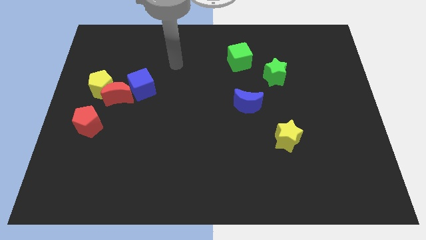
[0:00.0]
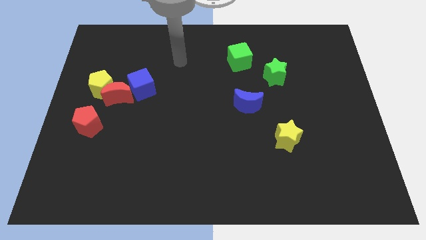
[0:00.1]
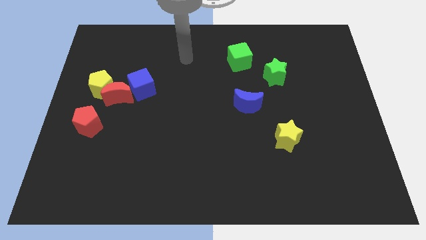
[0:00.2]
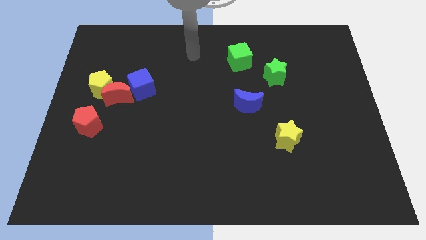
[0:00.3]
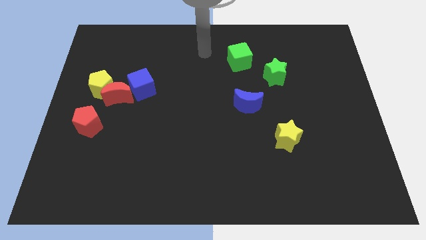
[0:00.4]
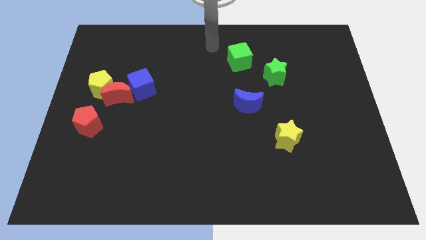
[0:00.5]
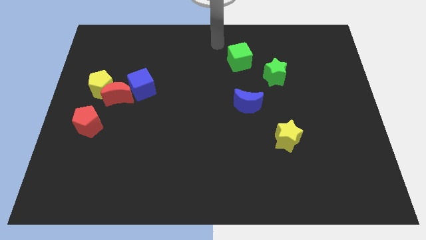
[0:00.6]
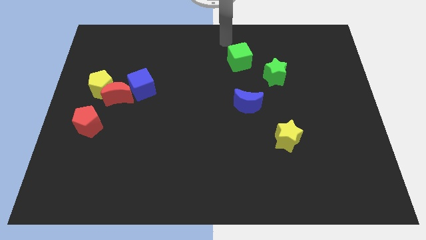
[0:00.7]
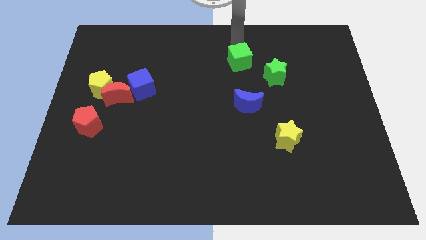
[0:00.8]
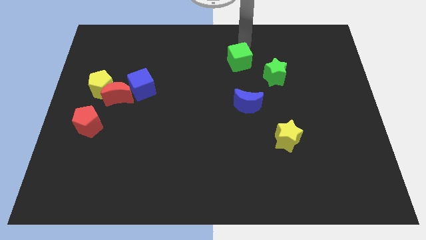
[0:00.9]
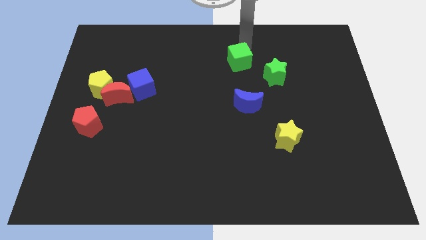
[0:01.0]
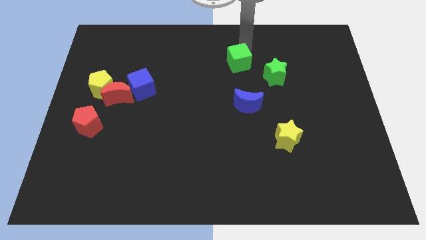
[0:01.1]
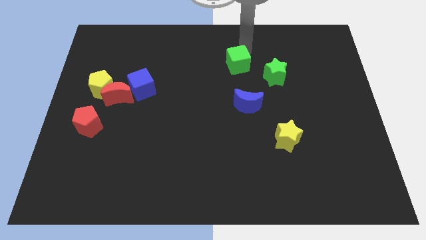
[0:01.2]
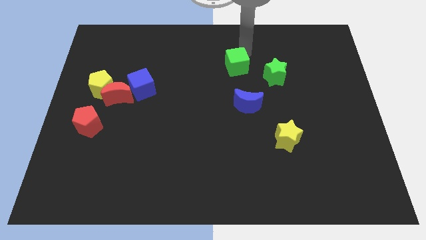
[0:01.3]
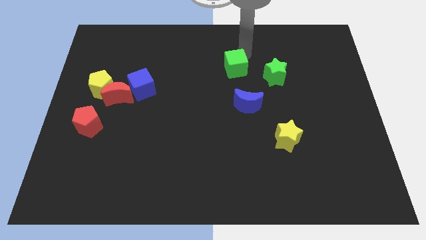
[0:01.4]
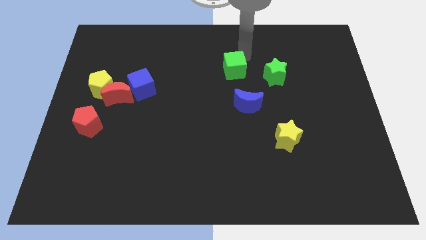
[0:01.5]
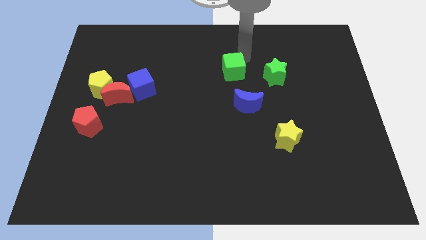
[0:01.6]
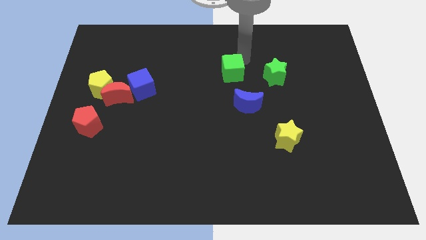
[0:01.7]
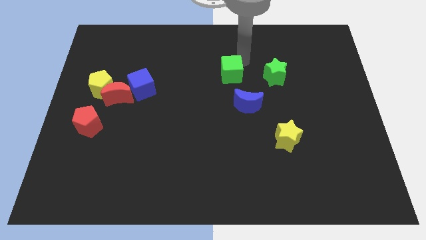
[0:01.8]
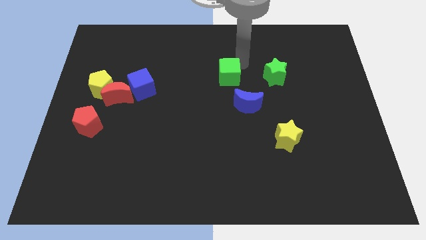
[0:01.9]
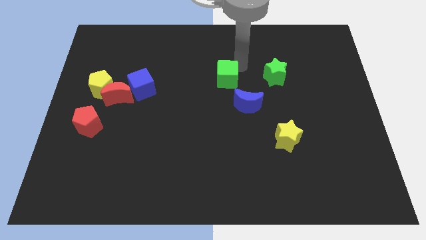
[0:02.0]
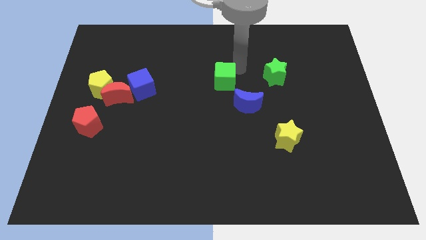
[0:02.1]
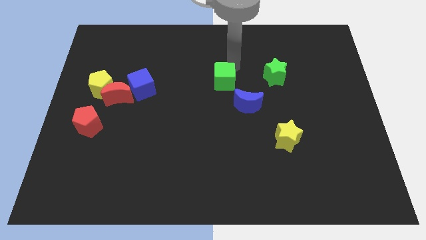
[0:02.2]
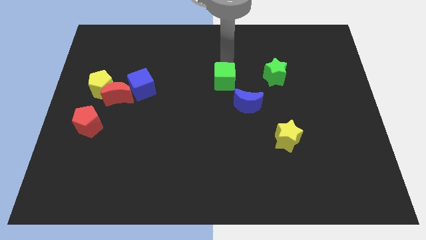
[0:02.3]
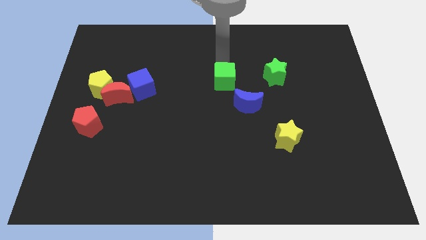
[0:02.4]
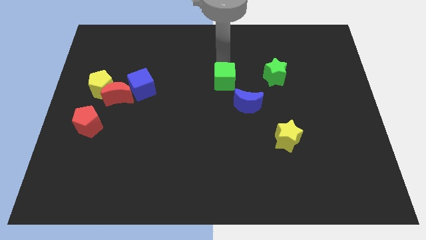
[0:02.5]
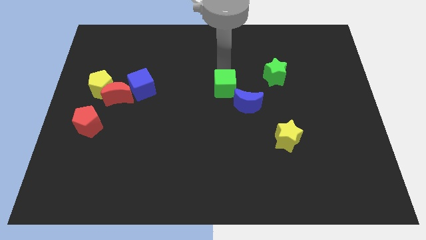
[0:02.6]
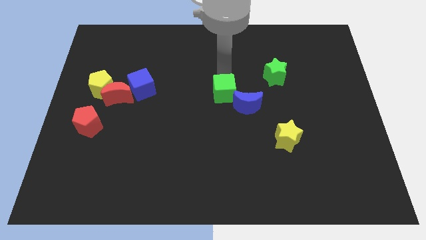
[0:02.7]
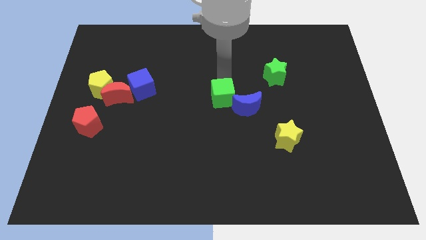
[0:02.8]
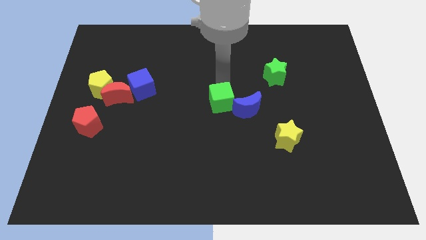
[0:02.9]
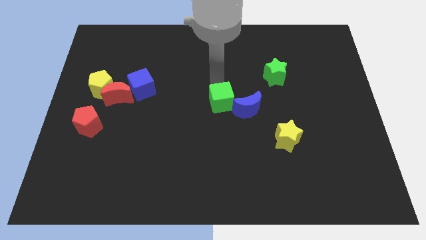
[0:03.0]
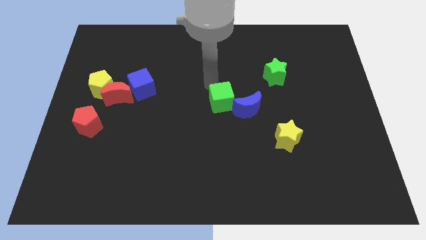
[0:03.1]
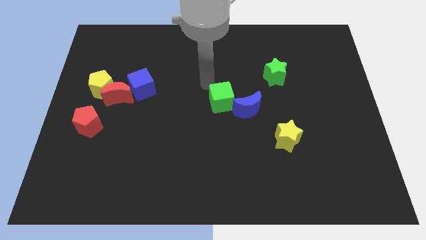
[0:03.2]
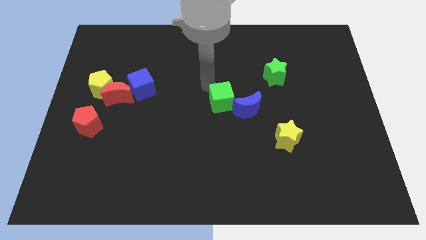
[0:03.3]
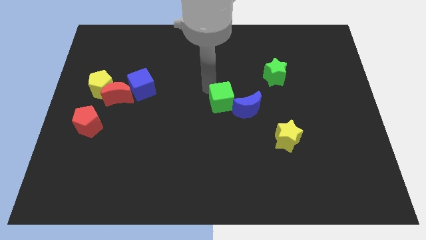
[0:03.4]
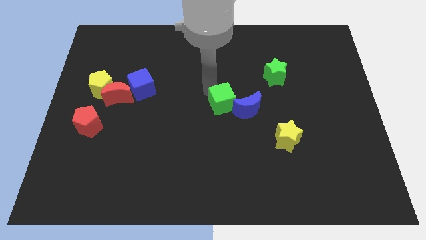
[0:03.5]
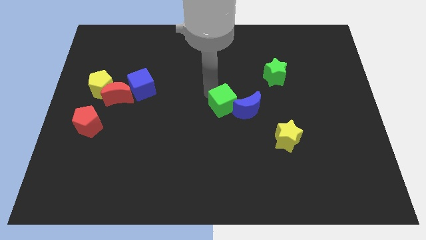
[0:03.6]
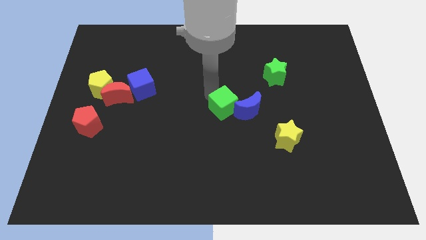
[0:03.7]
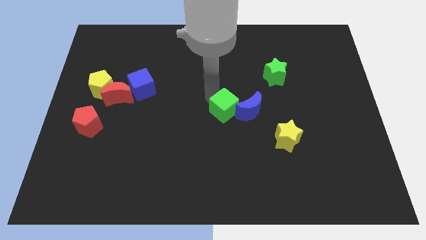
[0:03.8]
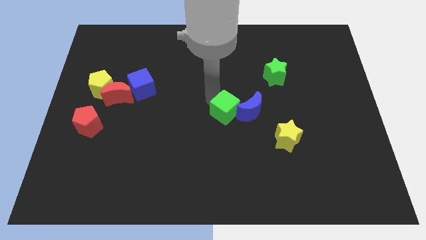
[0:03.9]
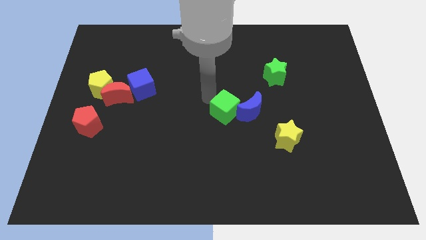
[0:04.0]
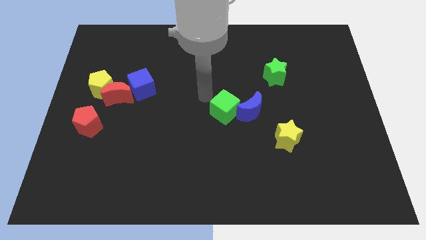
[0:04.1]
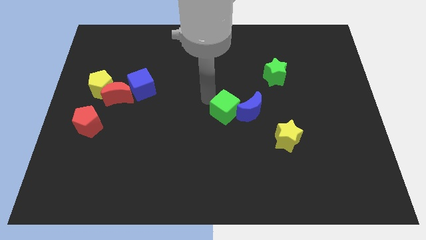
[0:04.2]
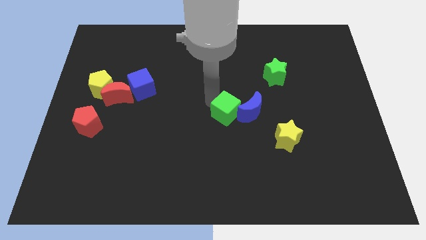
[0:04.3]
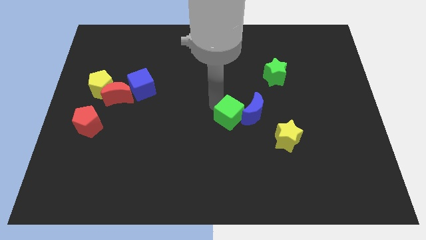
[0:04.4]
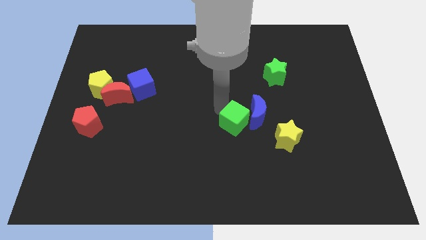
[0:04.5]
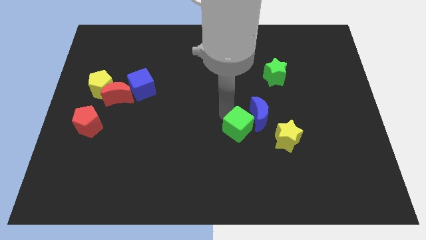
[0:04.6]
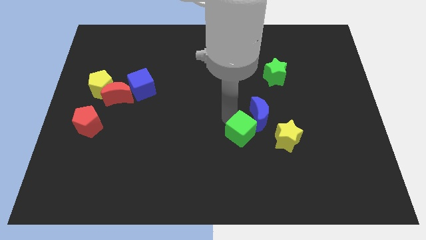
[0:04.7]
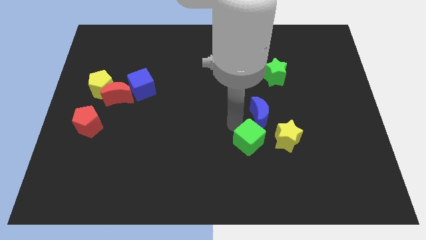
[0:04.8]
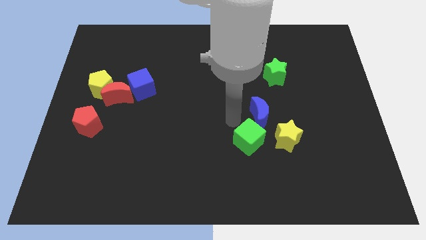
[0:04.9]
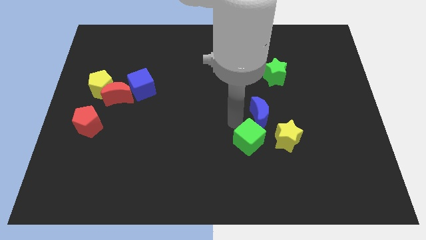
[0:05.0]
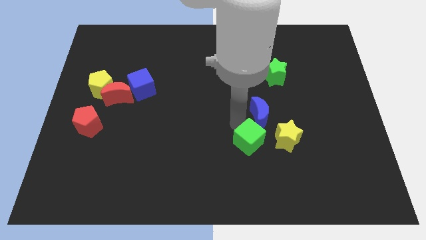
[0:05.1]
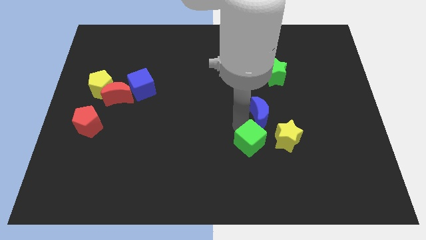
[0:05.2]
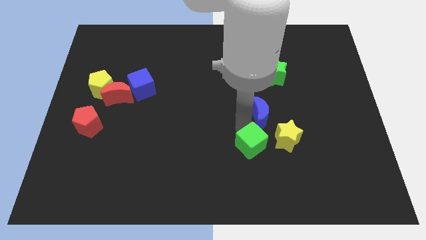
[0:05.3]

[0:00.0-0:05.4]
put the green cube diagonally down and to the left of the yellow star

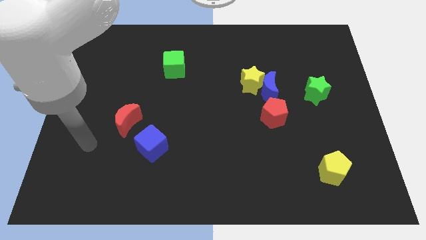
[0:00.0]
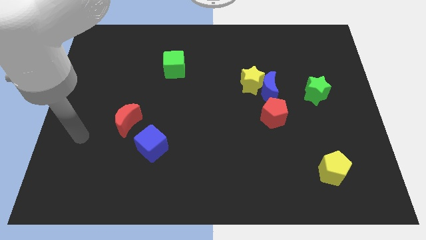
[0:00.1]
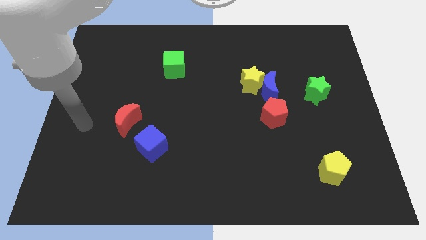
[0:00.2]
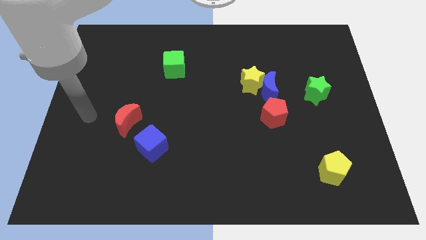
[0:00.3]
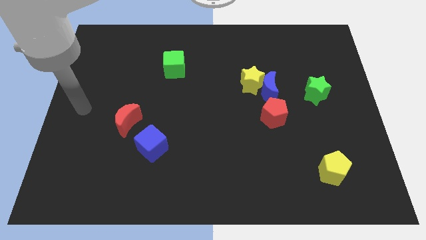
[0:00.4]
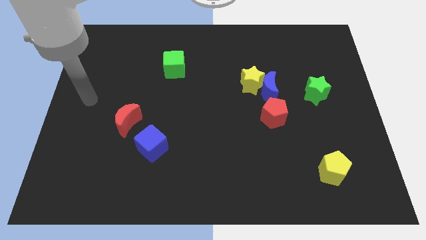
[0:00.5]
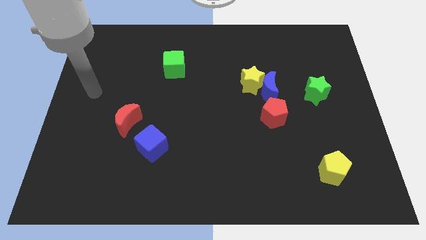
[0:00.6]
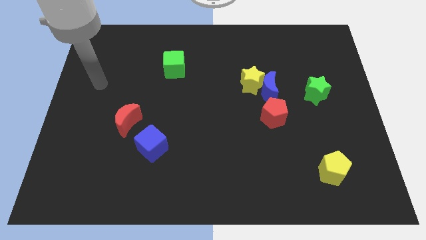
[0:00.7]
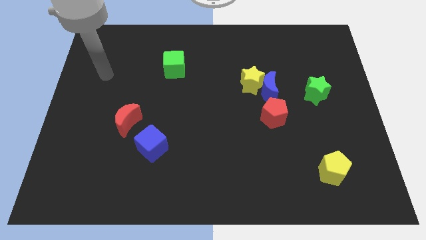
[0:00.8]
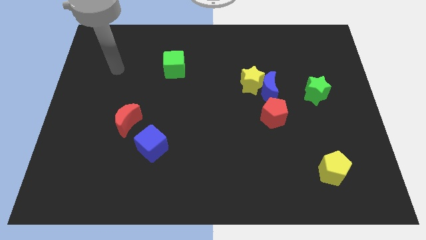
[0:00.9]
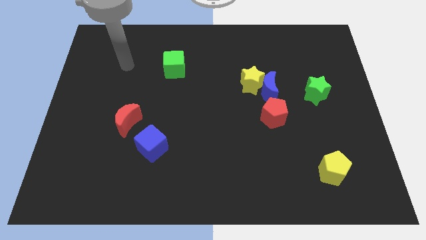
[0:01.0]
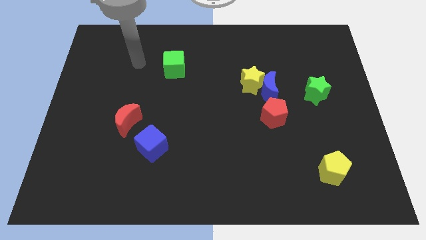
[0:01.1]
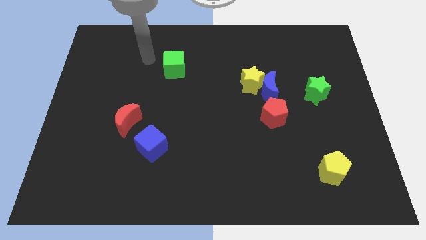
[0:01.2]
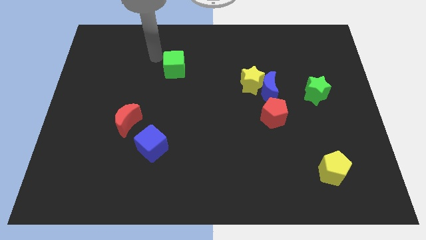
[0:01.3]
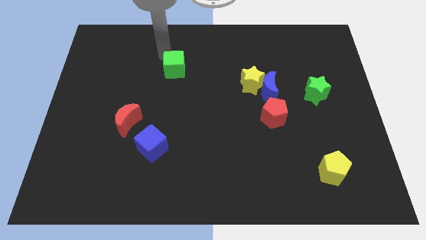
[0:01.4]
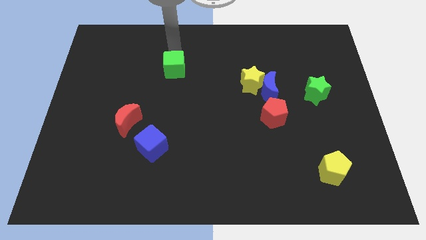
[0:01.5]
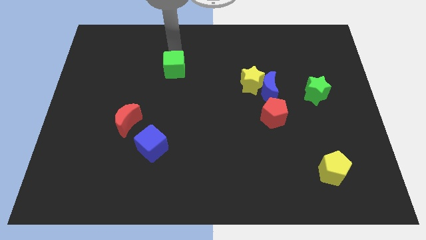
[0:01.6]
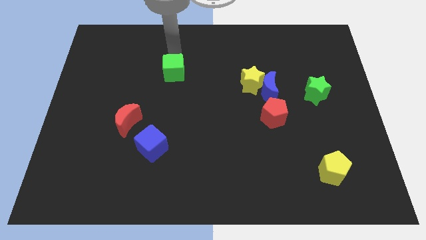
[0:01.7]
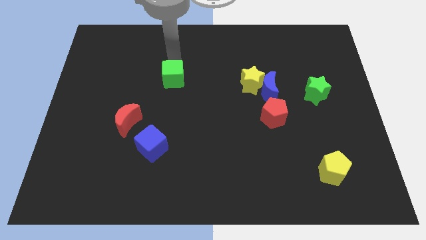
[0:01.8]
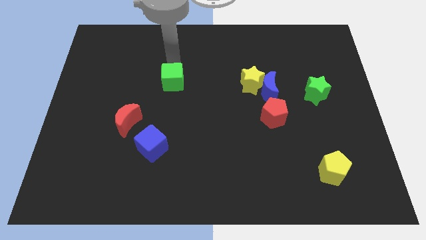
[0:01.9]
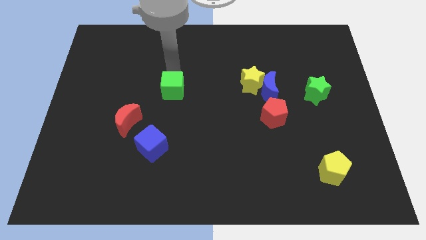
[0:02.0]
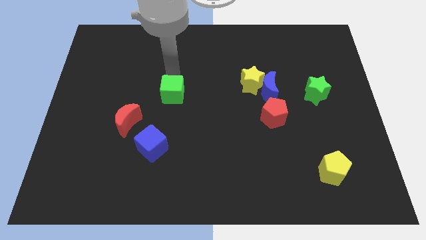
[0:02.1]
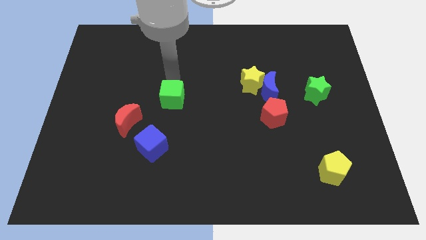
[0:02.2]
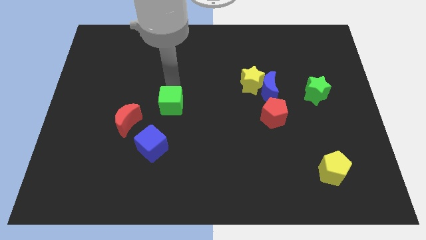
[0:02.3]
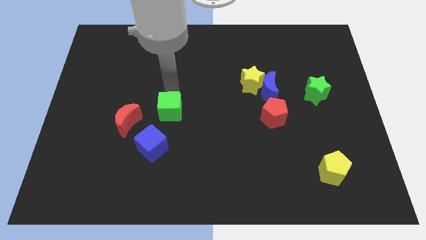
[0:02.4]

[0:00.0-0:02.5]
move the green cube to the right side of the red moon
